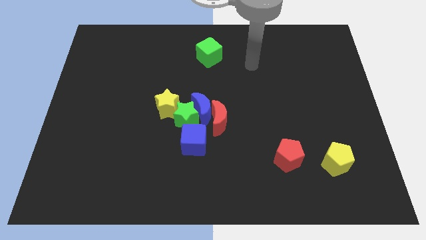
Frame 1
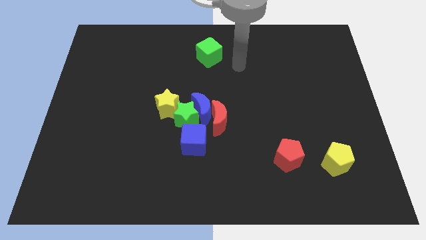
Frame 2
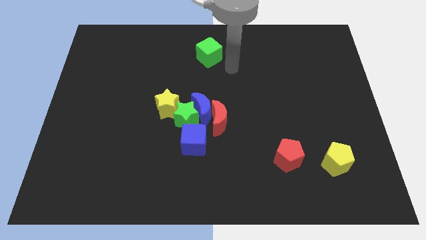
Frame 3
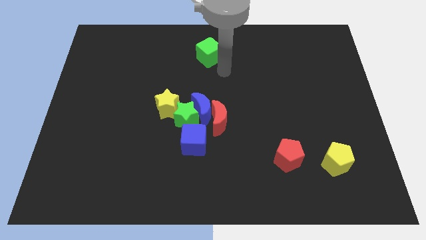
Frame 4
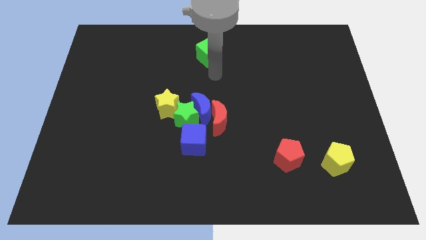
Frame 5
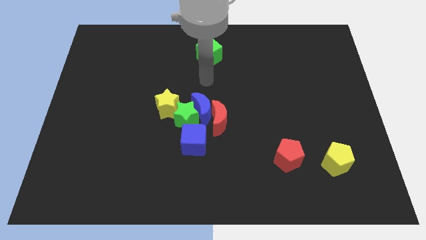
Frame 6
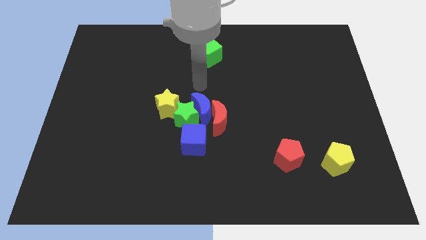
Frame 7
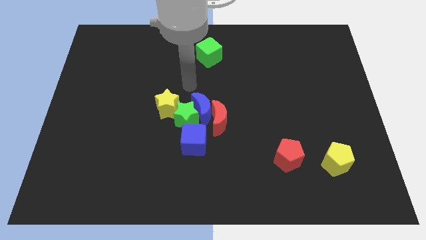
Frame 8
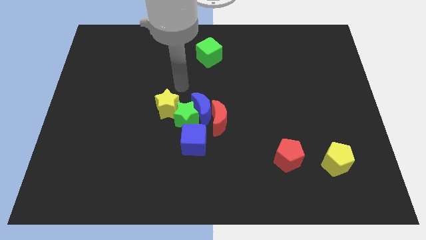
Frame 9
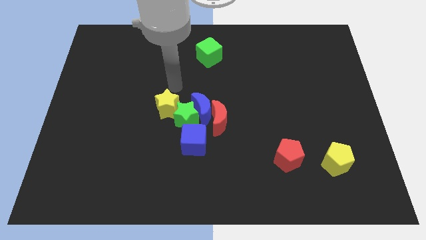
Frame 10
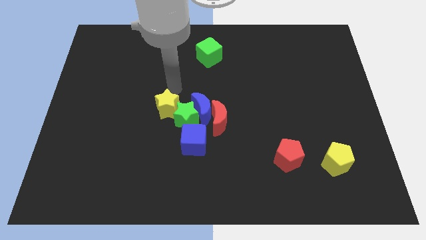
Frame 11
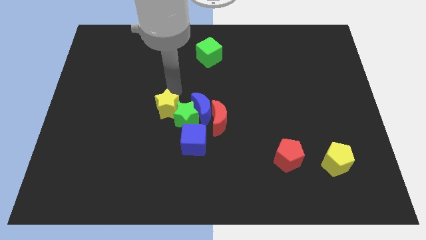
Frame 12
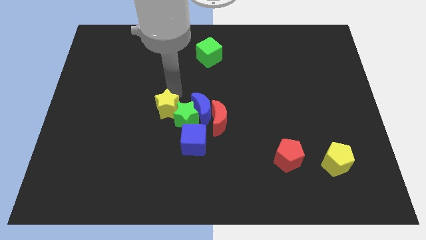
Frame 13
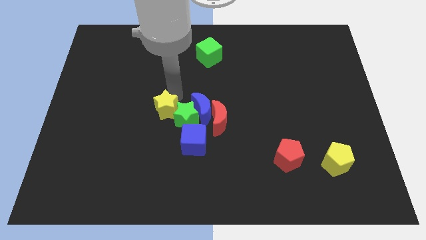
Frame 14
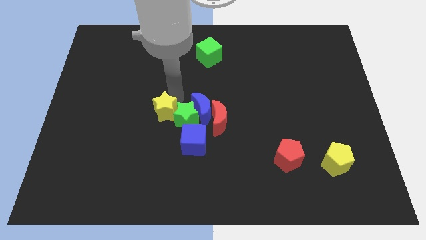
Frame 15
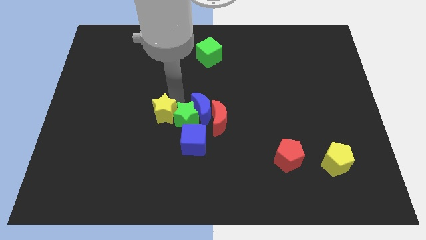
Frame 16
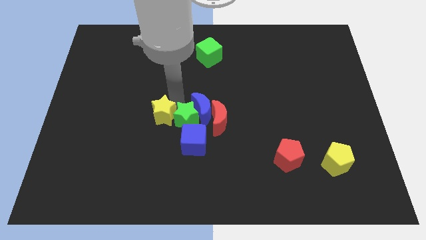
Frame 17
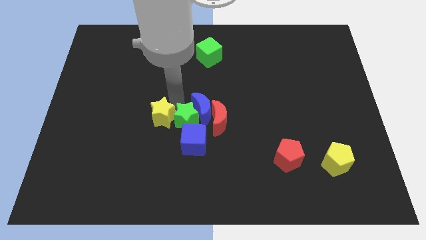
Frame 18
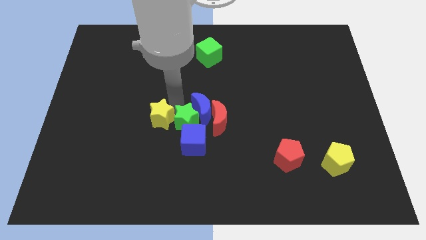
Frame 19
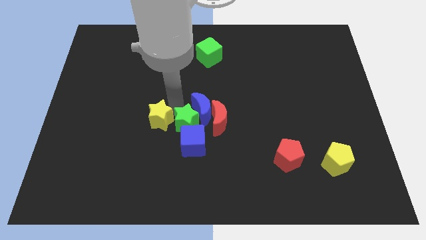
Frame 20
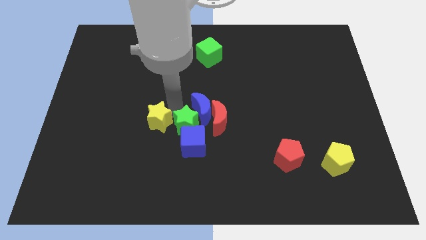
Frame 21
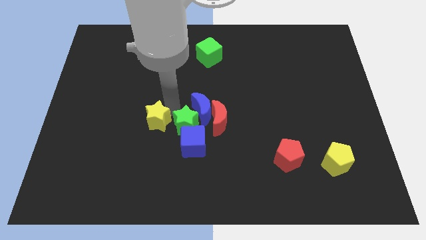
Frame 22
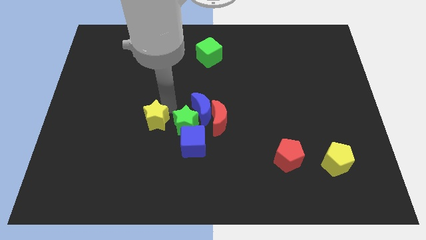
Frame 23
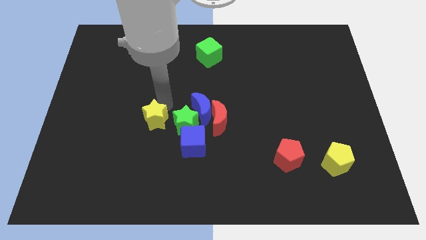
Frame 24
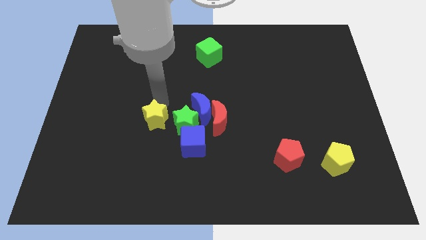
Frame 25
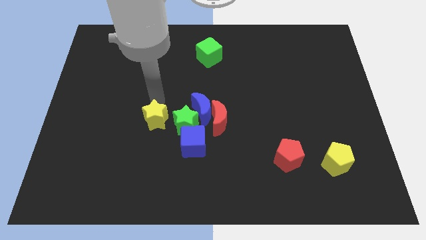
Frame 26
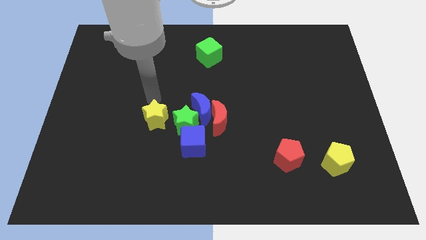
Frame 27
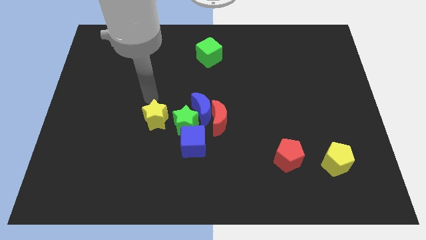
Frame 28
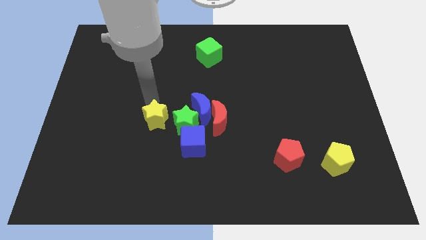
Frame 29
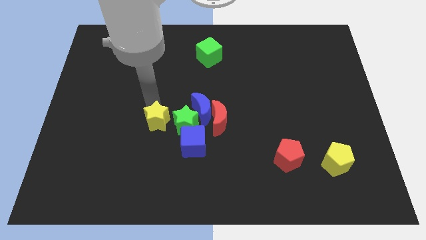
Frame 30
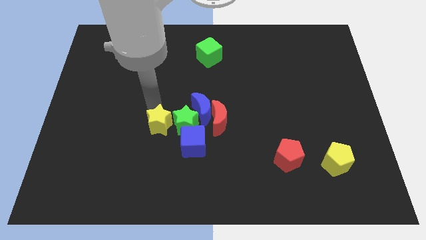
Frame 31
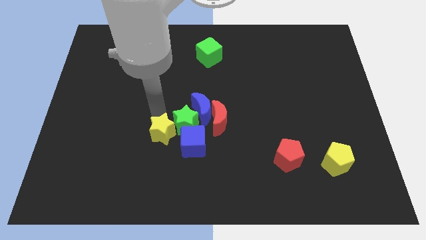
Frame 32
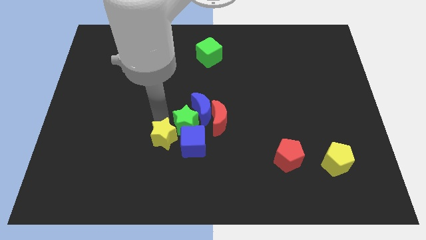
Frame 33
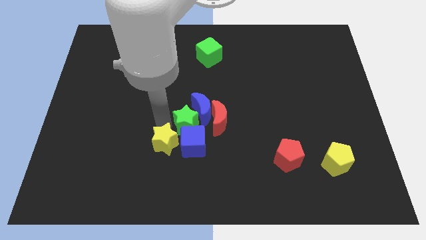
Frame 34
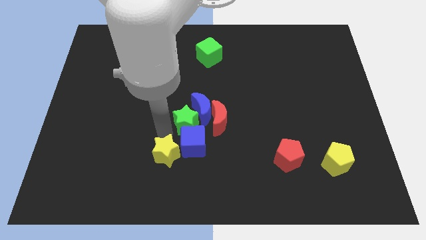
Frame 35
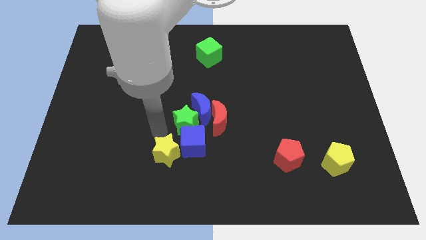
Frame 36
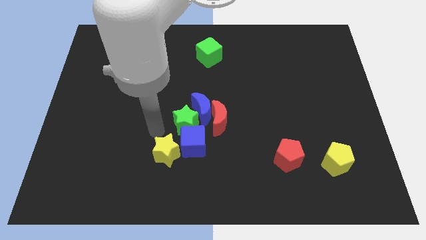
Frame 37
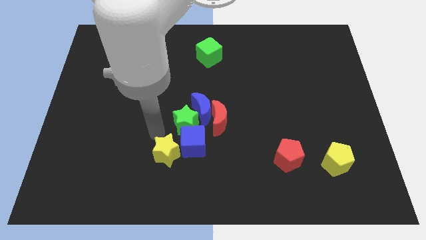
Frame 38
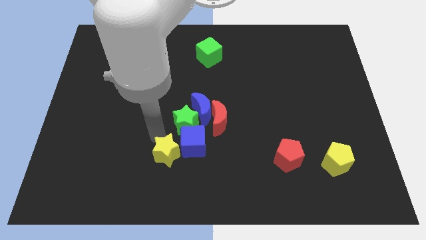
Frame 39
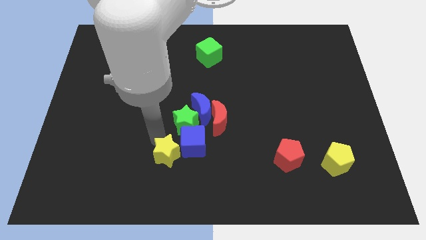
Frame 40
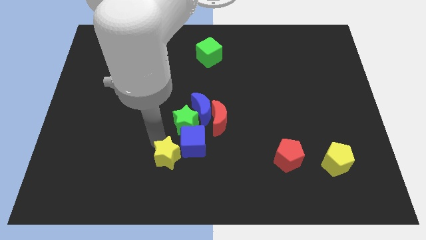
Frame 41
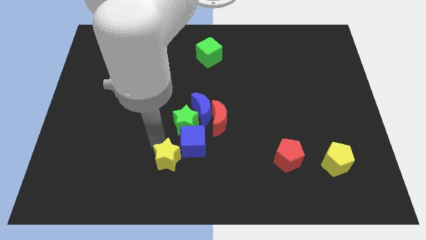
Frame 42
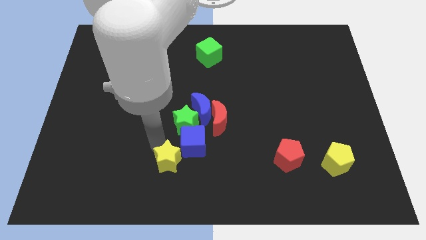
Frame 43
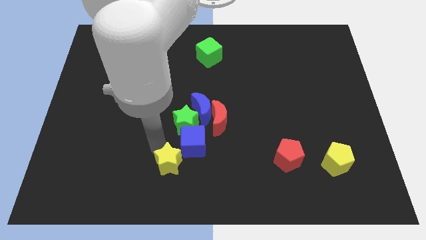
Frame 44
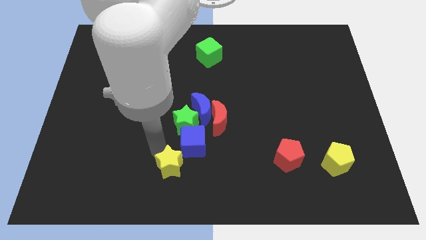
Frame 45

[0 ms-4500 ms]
move the yellow star to the bottom

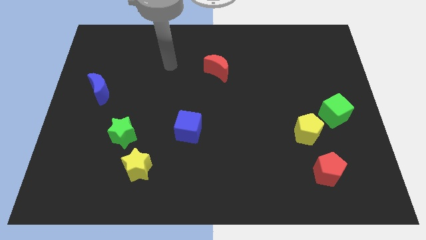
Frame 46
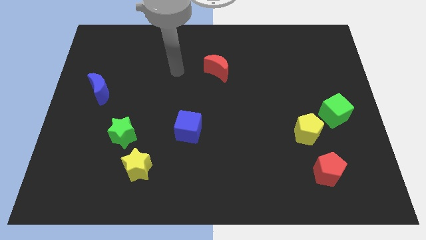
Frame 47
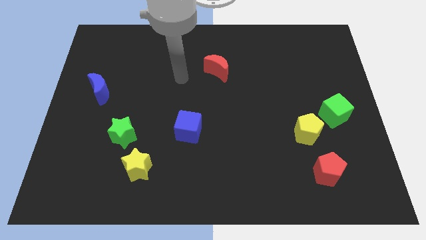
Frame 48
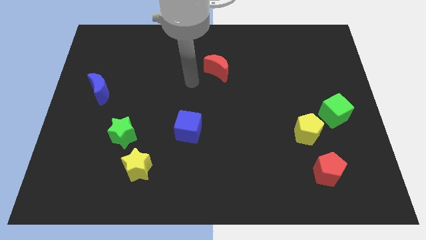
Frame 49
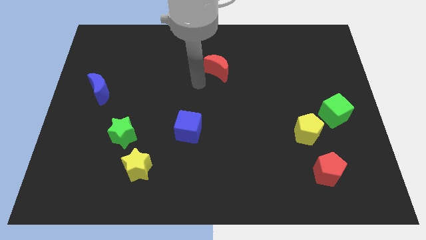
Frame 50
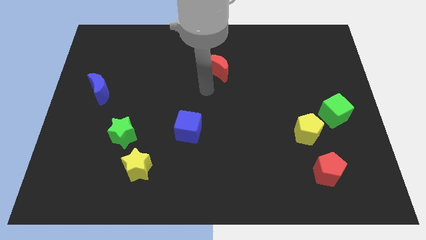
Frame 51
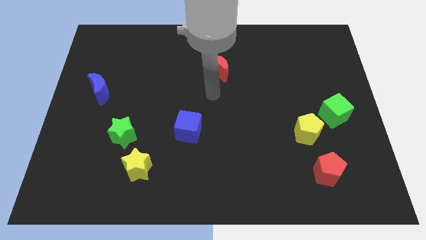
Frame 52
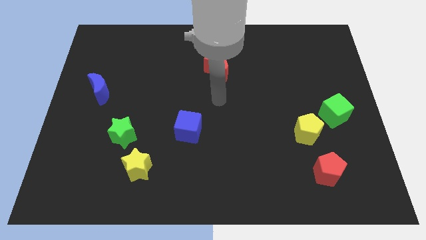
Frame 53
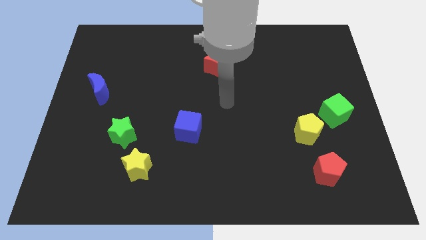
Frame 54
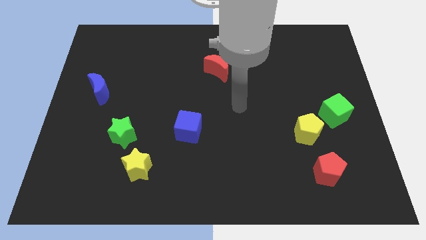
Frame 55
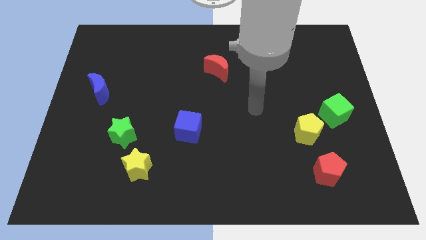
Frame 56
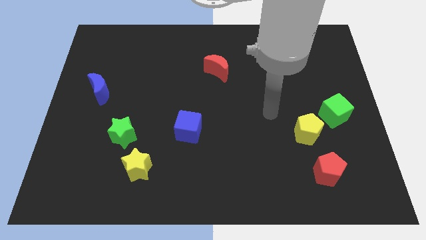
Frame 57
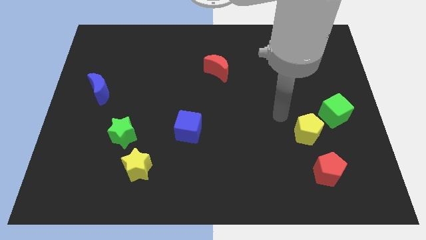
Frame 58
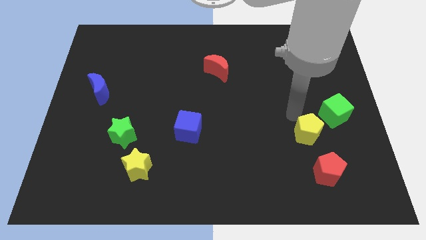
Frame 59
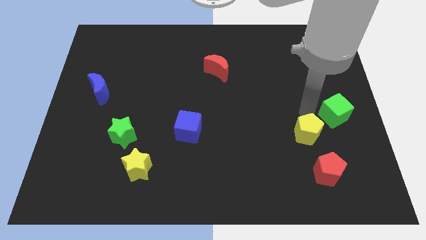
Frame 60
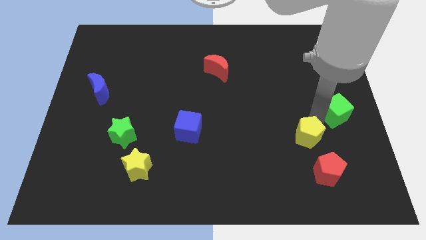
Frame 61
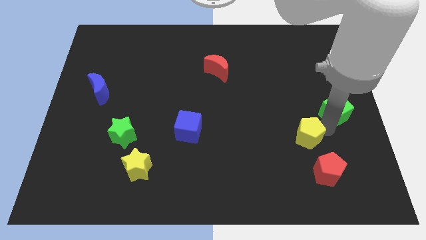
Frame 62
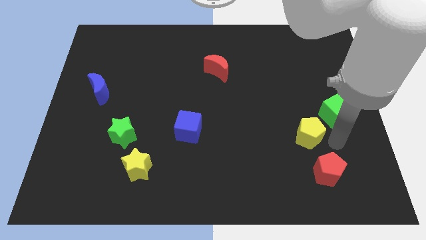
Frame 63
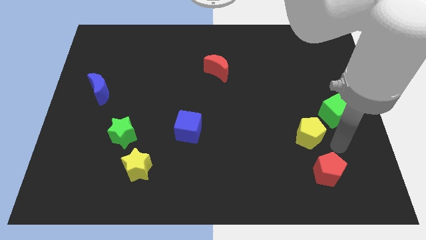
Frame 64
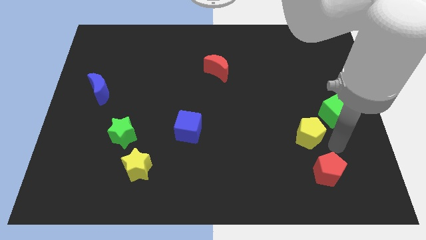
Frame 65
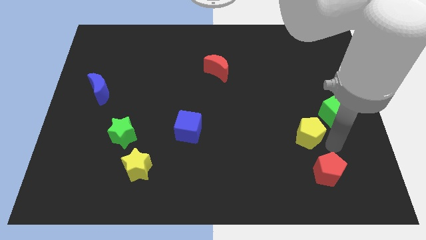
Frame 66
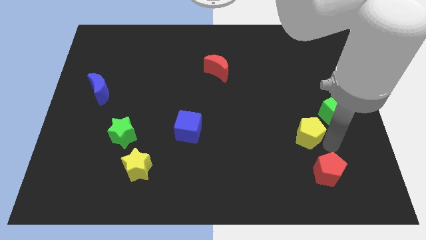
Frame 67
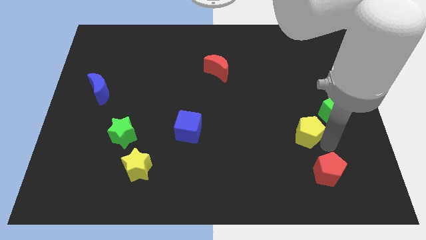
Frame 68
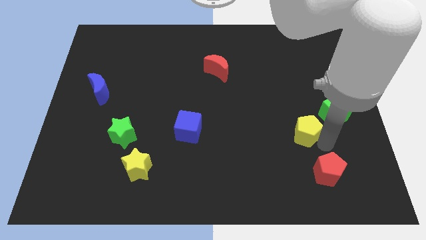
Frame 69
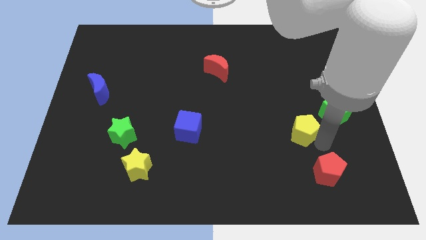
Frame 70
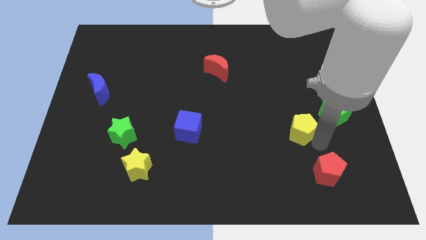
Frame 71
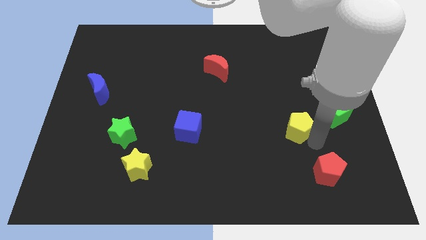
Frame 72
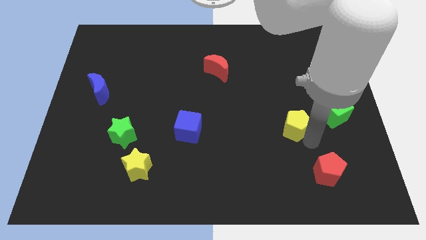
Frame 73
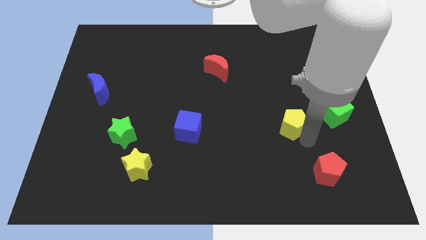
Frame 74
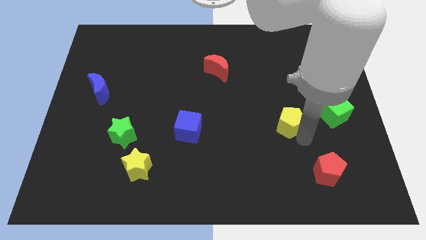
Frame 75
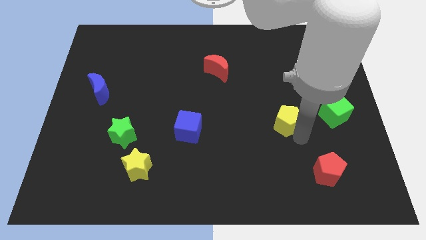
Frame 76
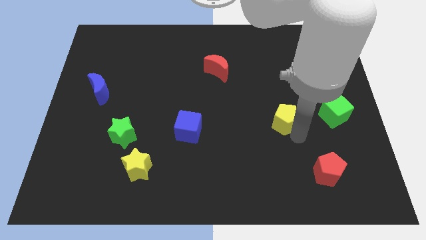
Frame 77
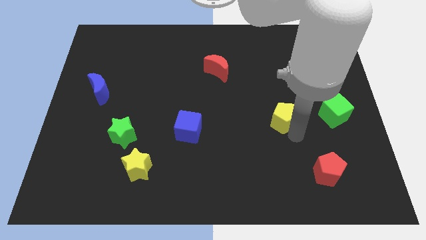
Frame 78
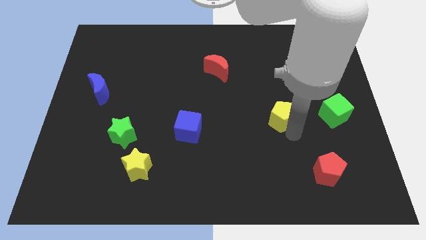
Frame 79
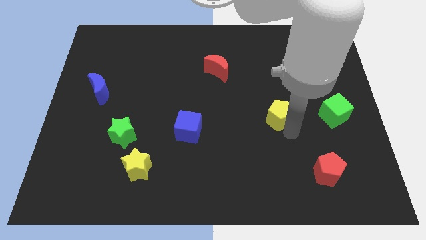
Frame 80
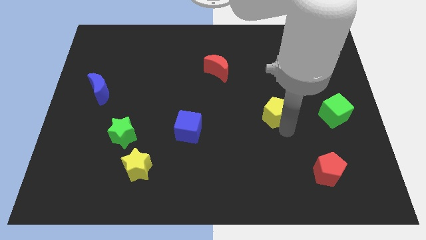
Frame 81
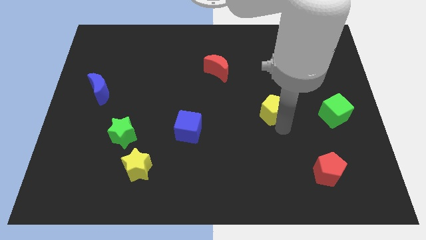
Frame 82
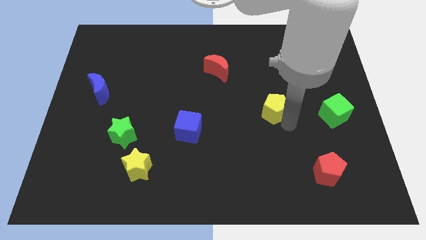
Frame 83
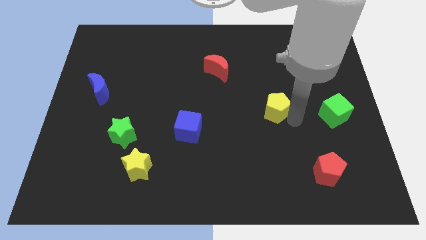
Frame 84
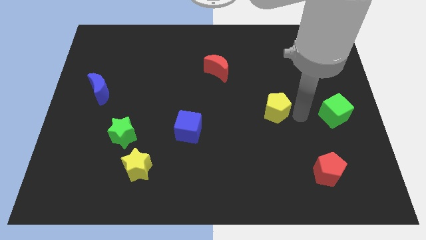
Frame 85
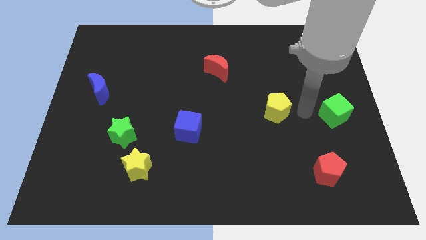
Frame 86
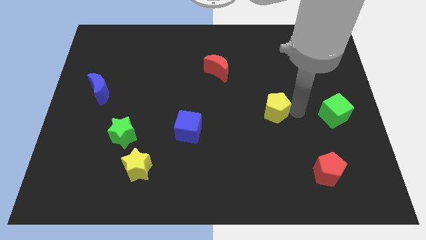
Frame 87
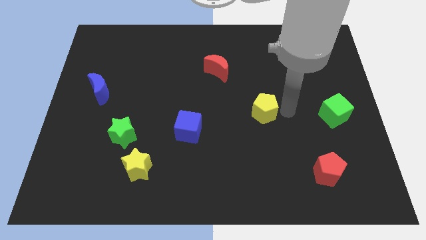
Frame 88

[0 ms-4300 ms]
put the yellow pentagon to the middle of the board
